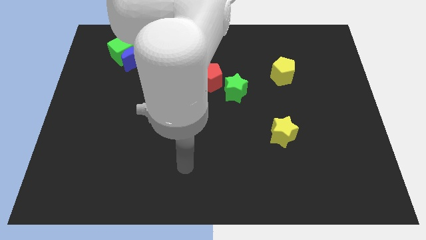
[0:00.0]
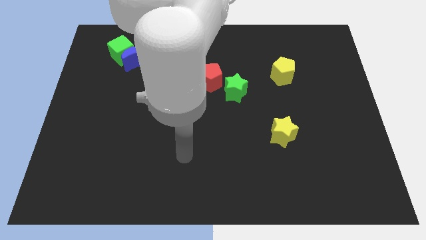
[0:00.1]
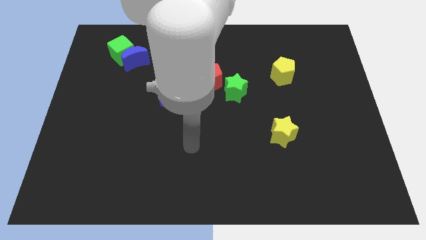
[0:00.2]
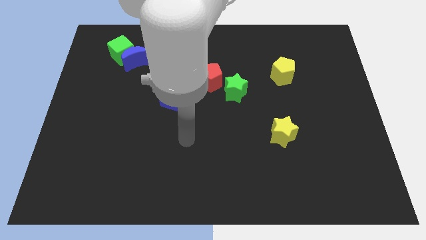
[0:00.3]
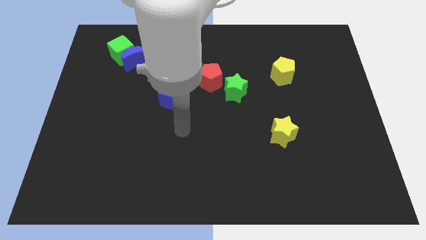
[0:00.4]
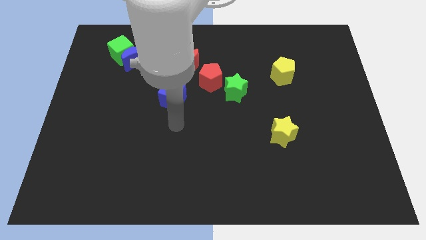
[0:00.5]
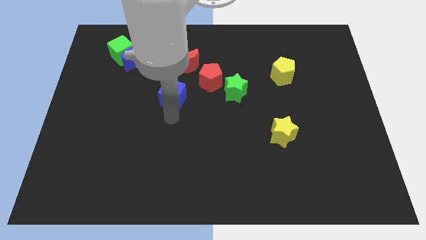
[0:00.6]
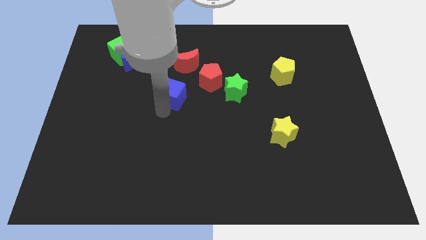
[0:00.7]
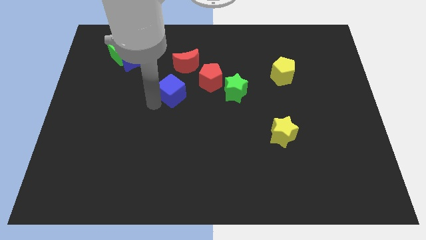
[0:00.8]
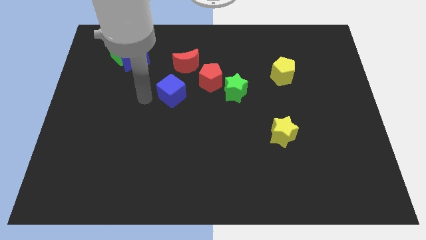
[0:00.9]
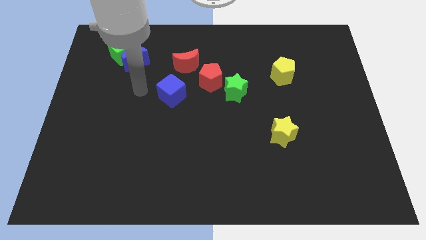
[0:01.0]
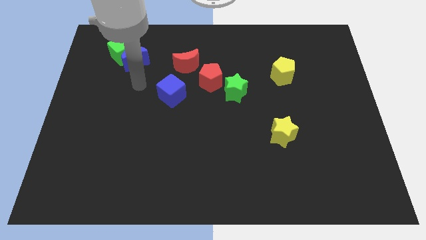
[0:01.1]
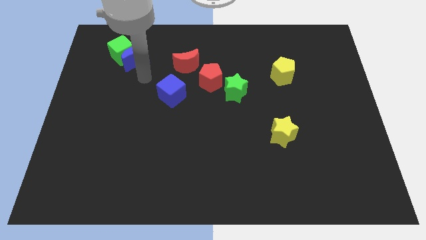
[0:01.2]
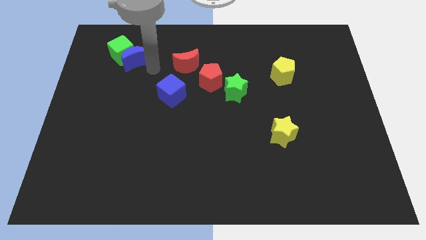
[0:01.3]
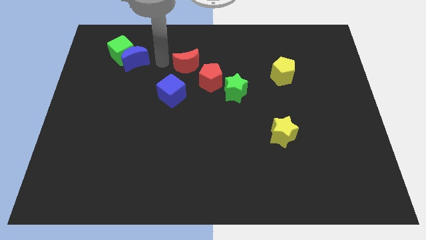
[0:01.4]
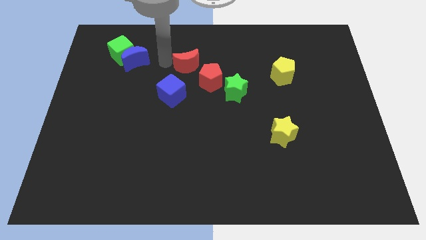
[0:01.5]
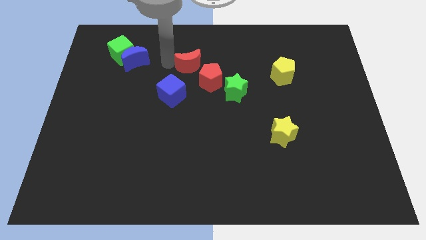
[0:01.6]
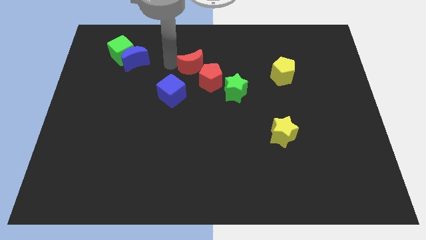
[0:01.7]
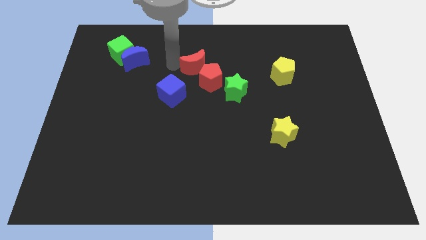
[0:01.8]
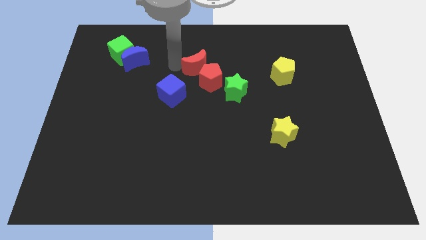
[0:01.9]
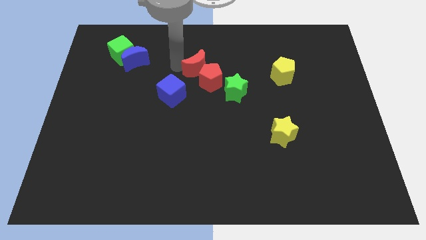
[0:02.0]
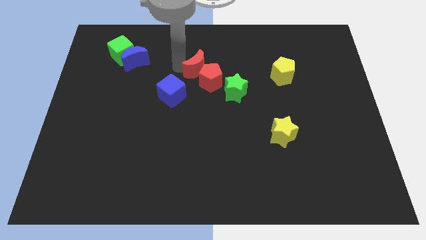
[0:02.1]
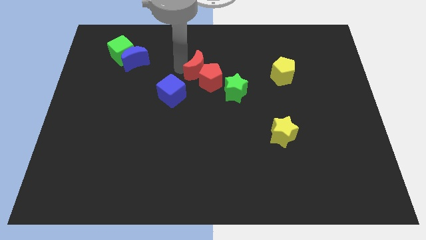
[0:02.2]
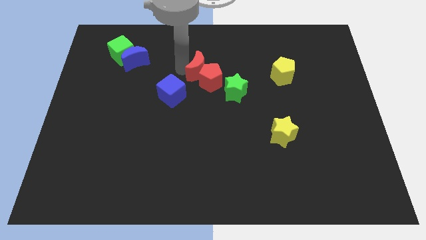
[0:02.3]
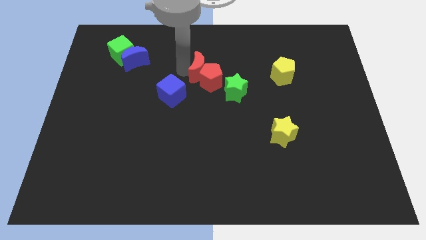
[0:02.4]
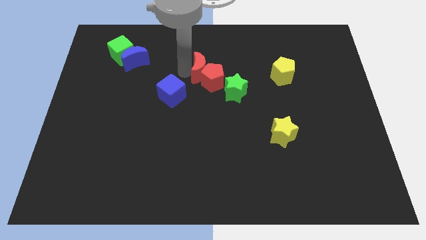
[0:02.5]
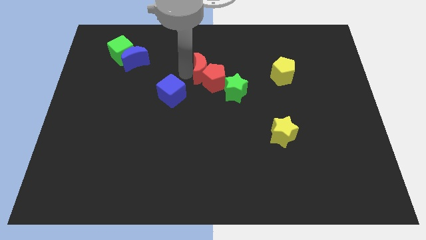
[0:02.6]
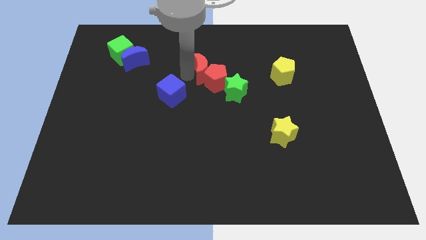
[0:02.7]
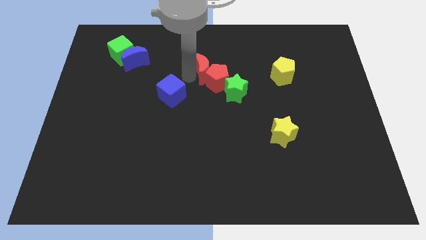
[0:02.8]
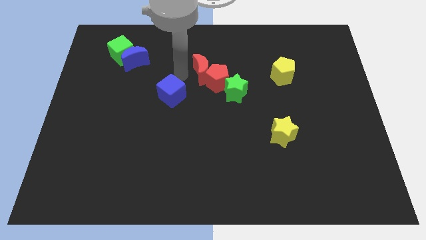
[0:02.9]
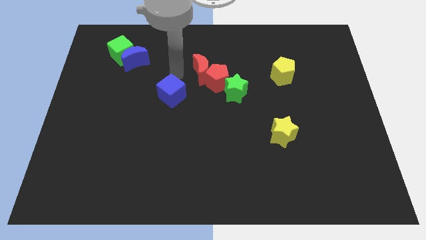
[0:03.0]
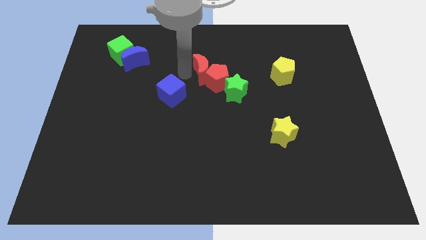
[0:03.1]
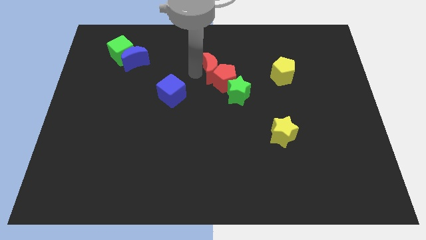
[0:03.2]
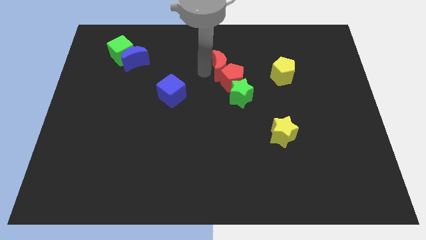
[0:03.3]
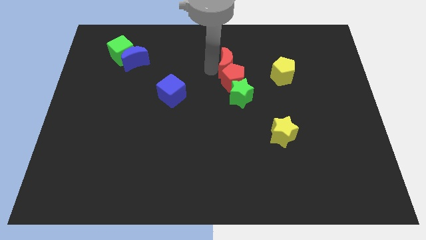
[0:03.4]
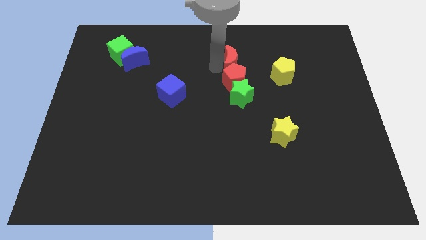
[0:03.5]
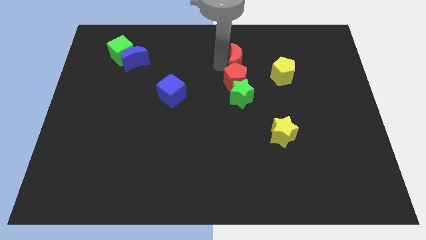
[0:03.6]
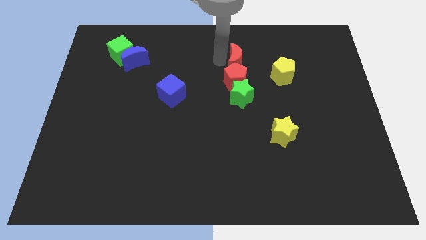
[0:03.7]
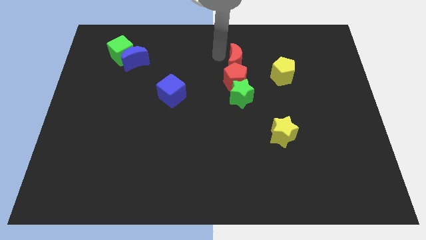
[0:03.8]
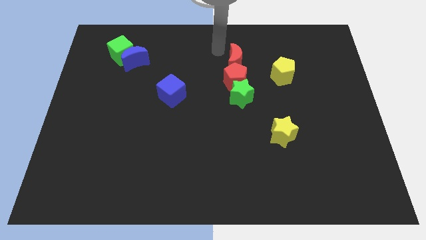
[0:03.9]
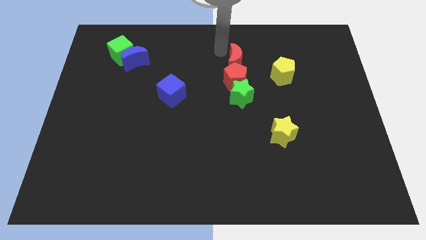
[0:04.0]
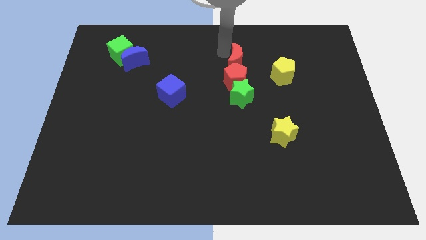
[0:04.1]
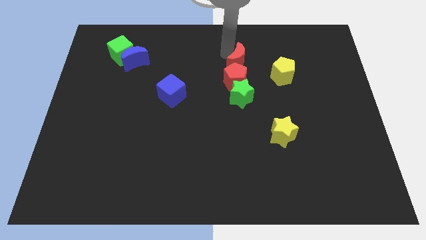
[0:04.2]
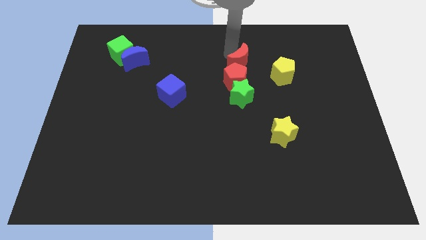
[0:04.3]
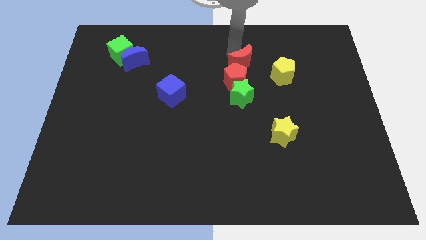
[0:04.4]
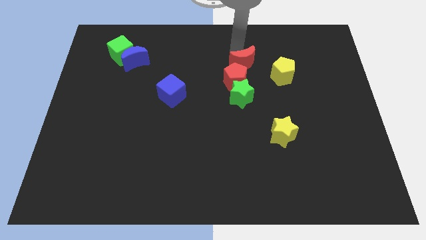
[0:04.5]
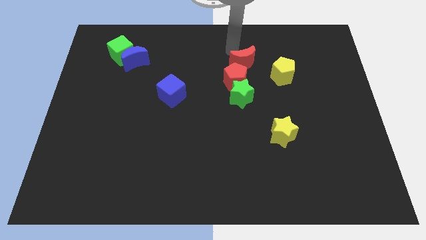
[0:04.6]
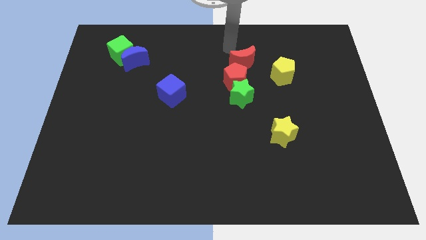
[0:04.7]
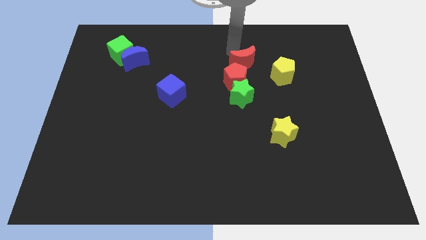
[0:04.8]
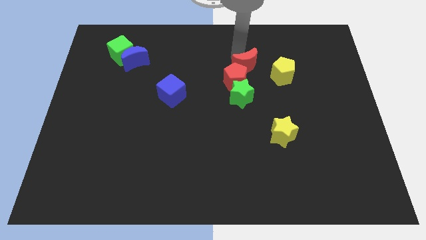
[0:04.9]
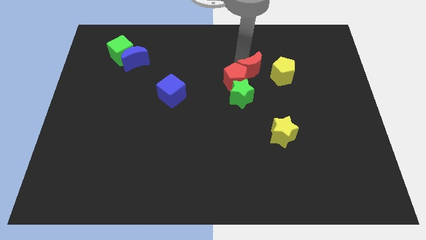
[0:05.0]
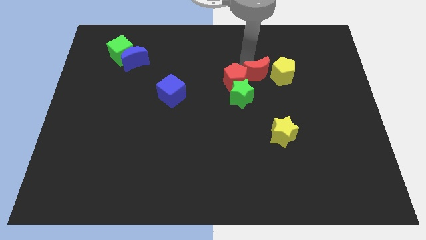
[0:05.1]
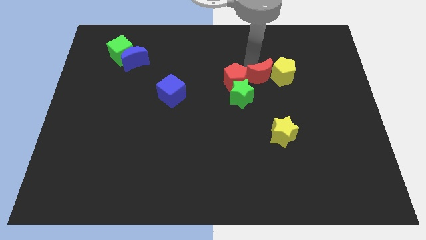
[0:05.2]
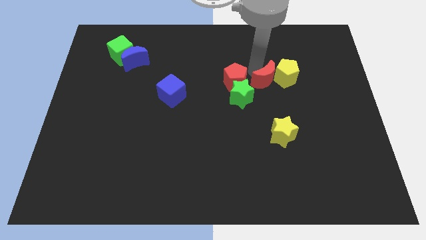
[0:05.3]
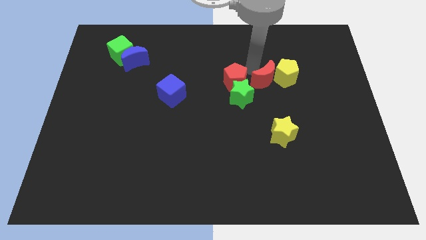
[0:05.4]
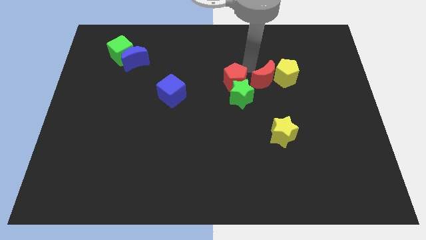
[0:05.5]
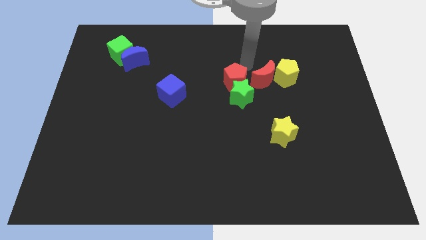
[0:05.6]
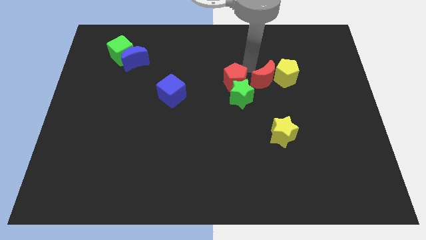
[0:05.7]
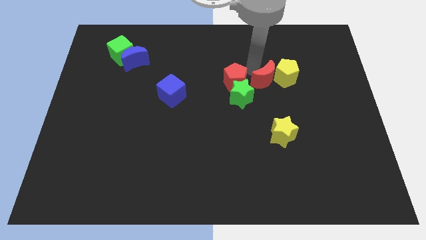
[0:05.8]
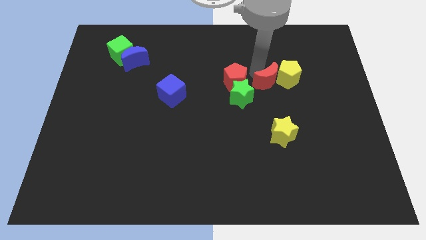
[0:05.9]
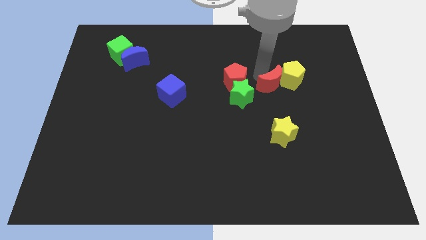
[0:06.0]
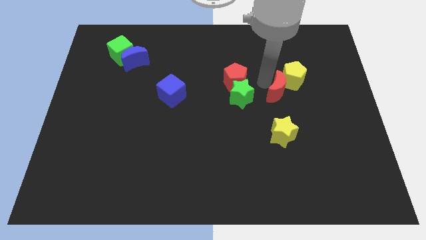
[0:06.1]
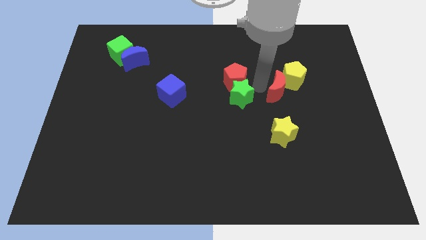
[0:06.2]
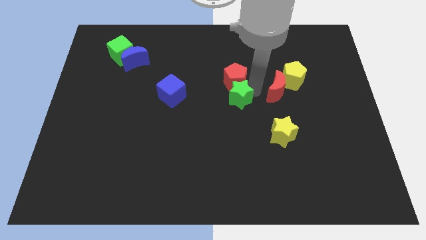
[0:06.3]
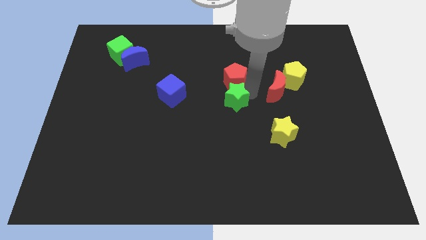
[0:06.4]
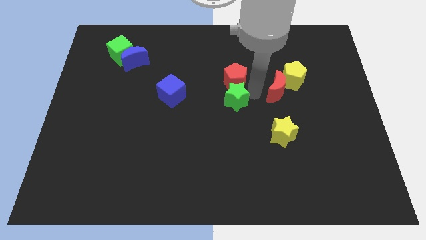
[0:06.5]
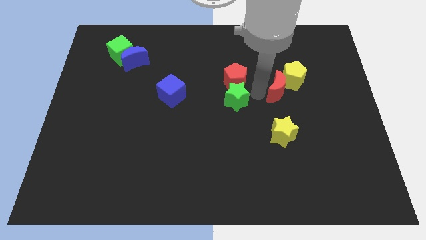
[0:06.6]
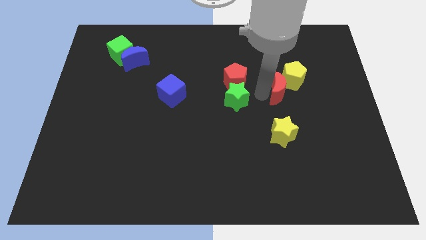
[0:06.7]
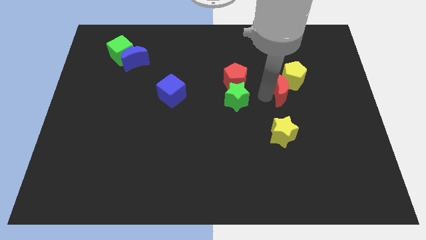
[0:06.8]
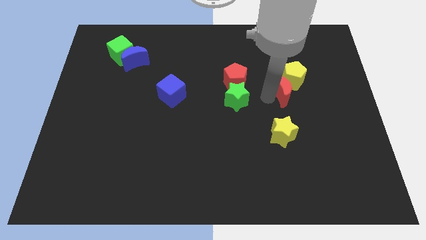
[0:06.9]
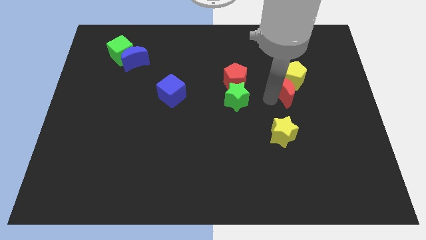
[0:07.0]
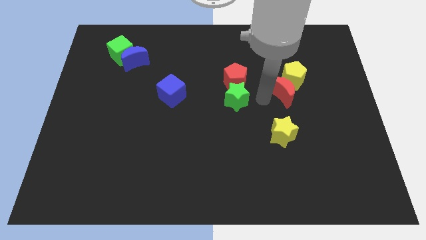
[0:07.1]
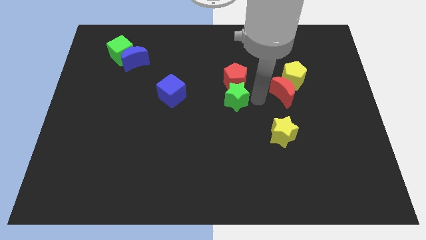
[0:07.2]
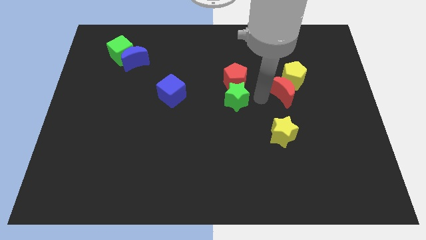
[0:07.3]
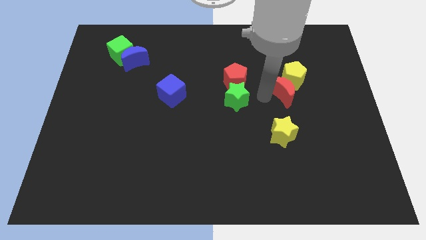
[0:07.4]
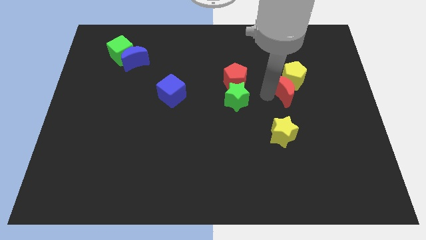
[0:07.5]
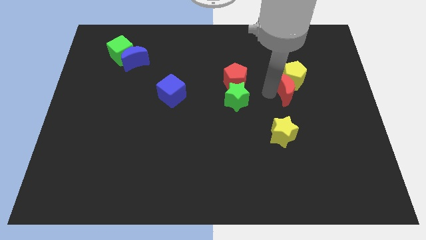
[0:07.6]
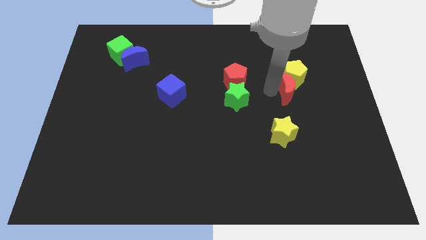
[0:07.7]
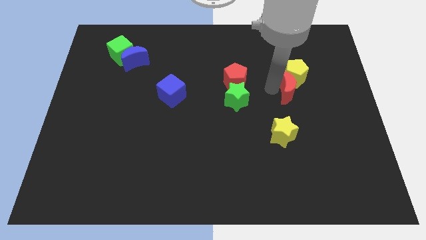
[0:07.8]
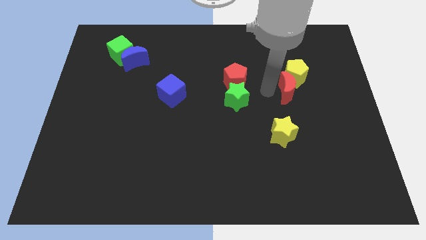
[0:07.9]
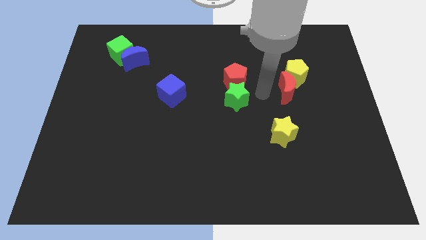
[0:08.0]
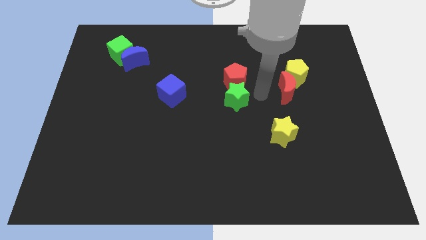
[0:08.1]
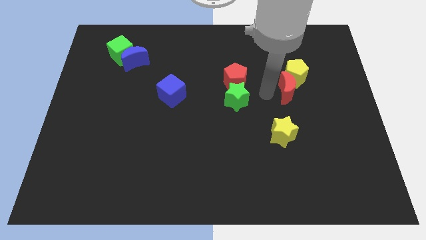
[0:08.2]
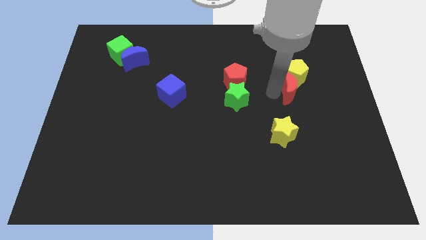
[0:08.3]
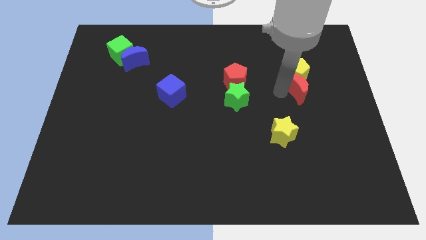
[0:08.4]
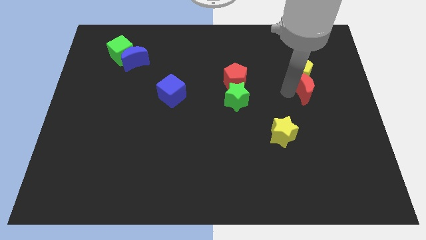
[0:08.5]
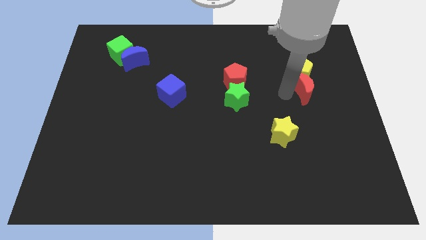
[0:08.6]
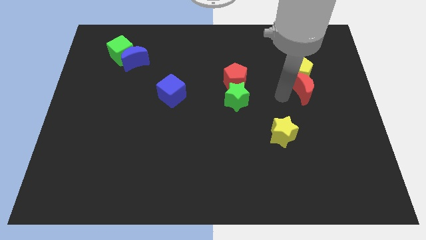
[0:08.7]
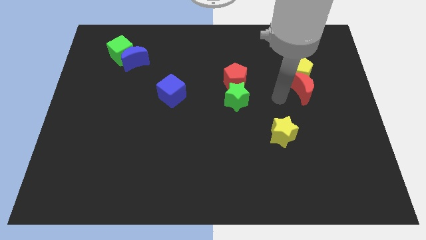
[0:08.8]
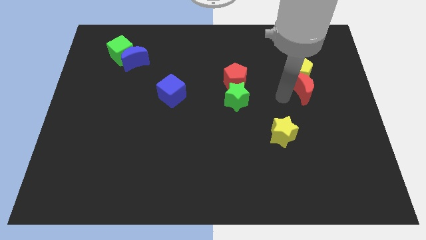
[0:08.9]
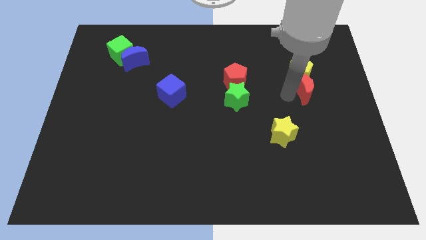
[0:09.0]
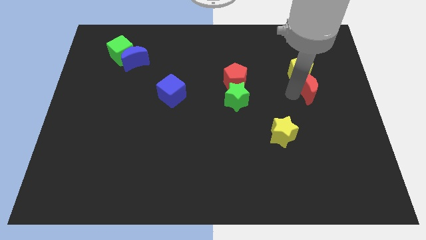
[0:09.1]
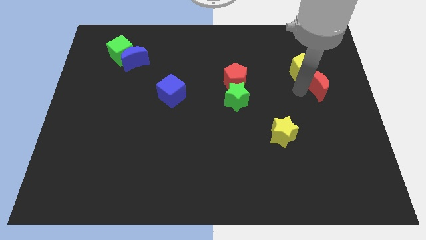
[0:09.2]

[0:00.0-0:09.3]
put the red moon to the right side of the board
